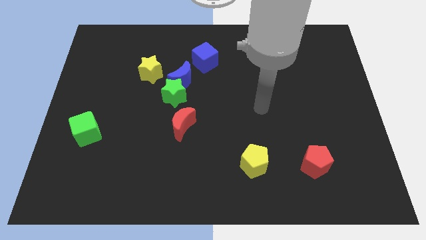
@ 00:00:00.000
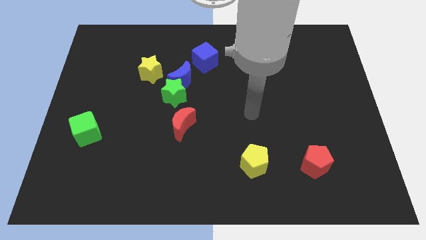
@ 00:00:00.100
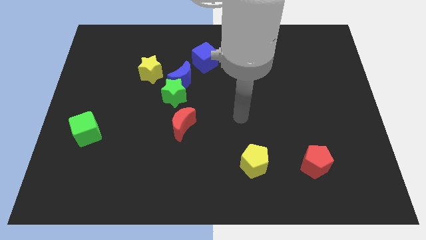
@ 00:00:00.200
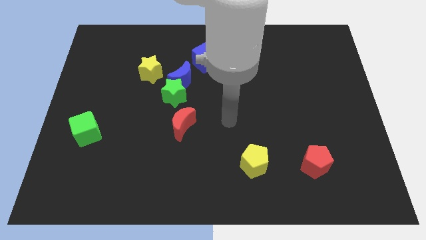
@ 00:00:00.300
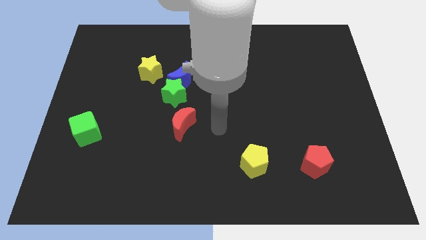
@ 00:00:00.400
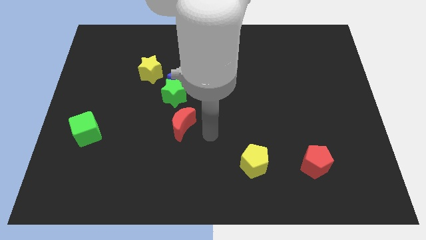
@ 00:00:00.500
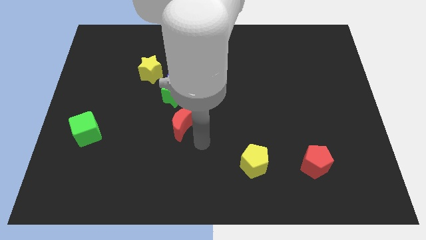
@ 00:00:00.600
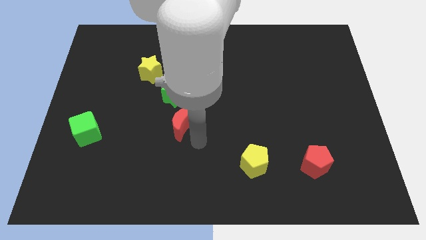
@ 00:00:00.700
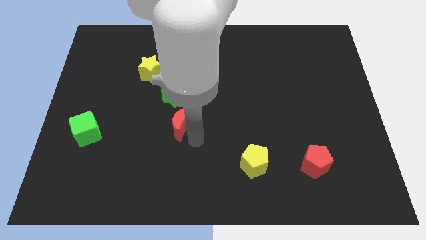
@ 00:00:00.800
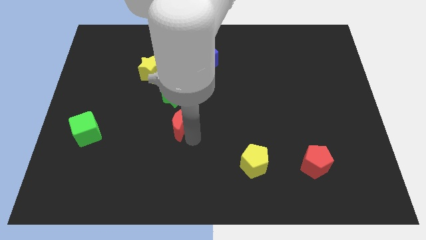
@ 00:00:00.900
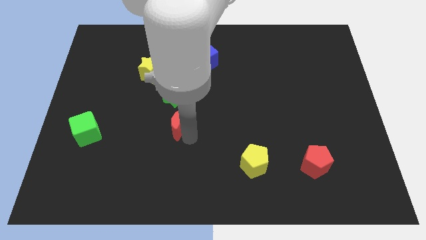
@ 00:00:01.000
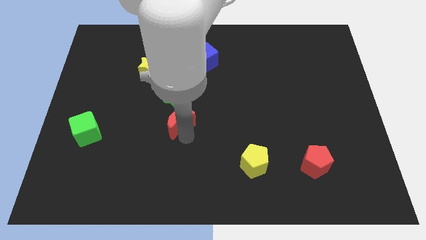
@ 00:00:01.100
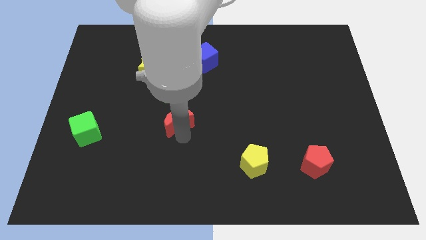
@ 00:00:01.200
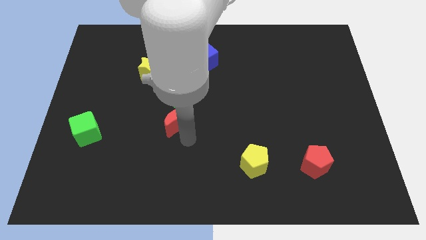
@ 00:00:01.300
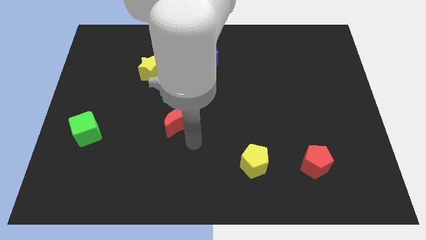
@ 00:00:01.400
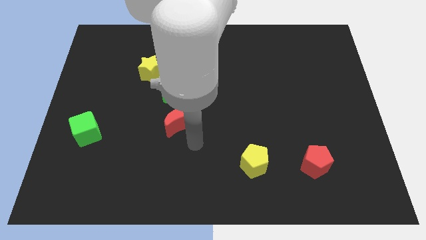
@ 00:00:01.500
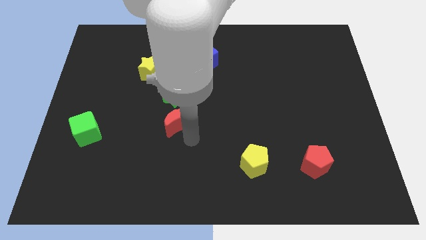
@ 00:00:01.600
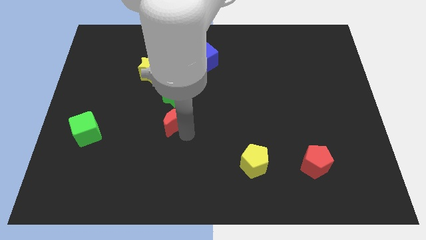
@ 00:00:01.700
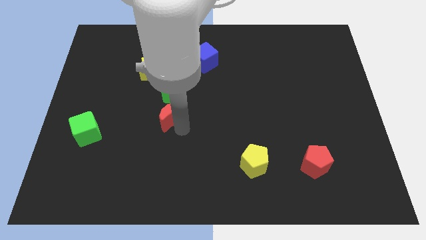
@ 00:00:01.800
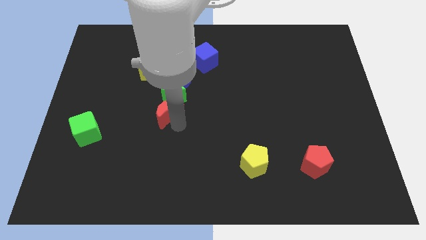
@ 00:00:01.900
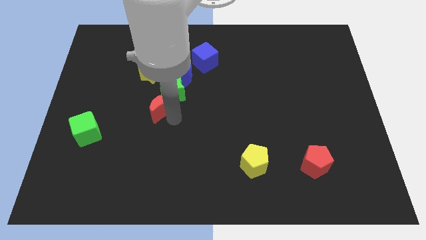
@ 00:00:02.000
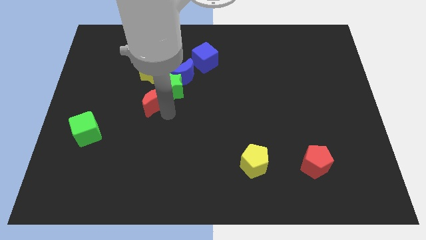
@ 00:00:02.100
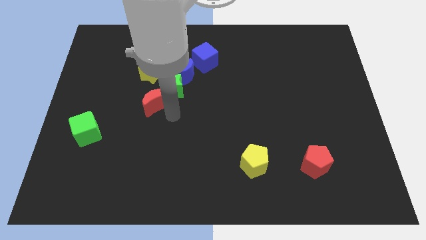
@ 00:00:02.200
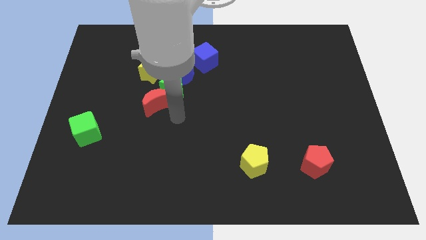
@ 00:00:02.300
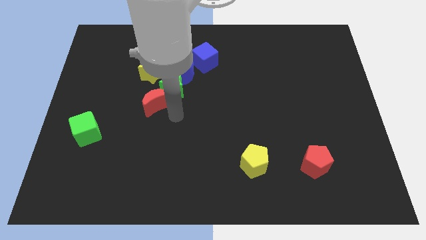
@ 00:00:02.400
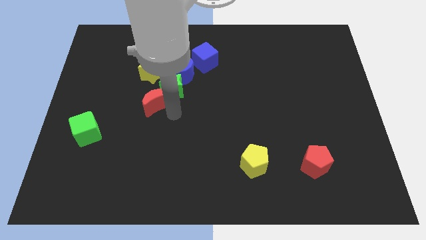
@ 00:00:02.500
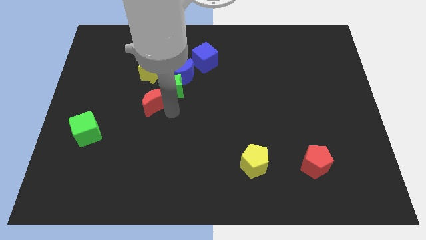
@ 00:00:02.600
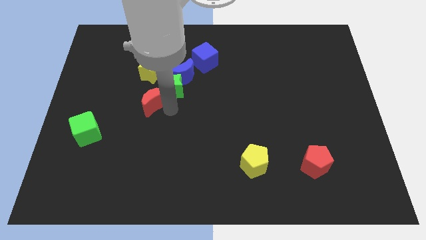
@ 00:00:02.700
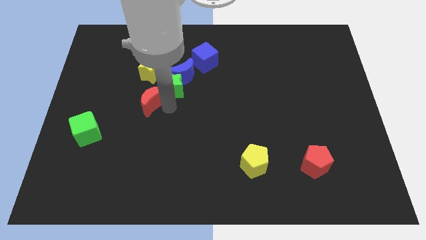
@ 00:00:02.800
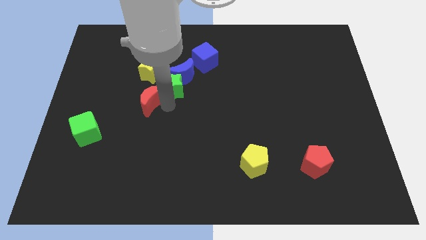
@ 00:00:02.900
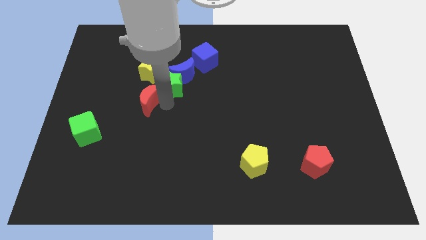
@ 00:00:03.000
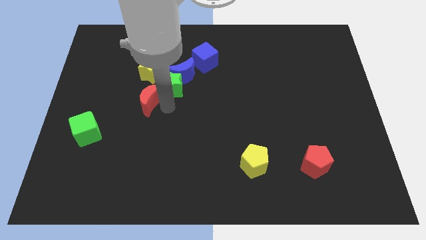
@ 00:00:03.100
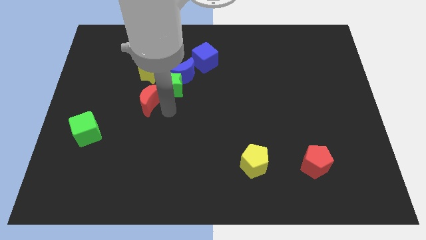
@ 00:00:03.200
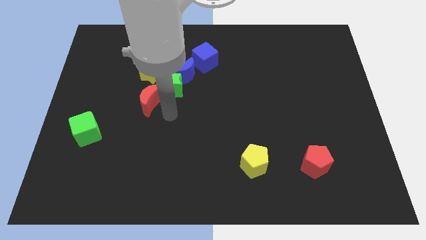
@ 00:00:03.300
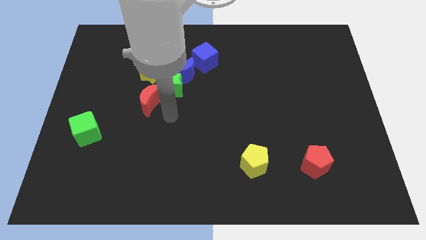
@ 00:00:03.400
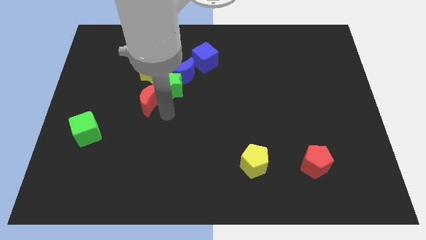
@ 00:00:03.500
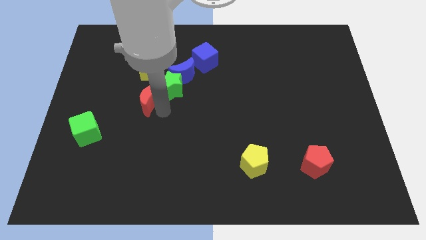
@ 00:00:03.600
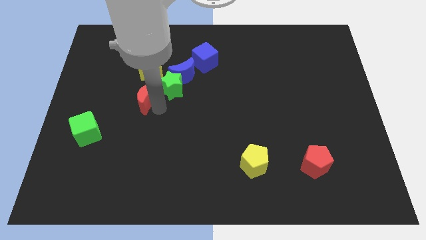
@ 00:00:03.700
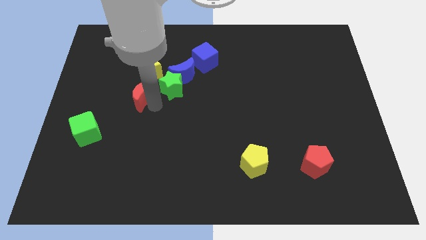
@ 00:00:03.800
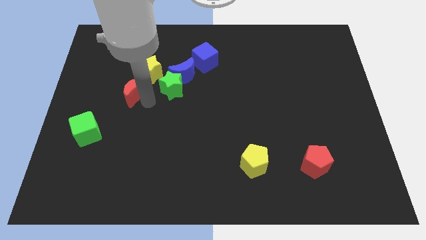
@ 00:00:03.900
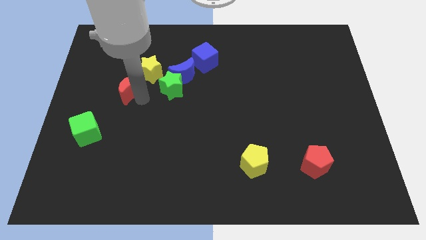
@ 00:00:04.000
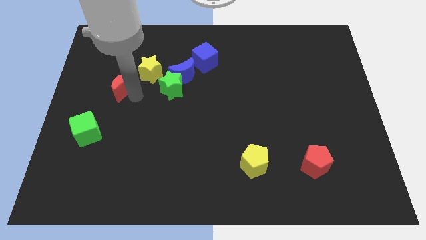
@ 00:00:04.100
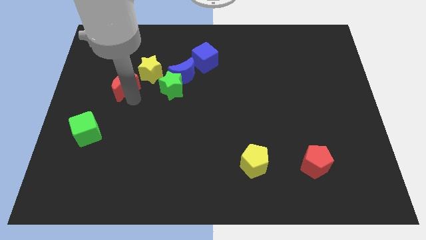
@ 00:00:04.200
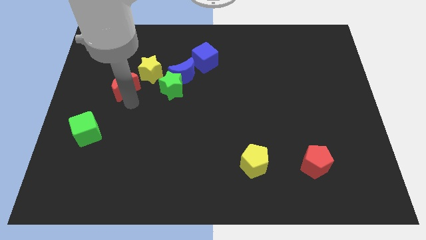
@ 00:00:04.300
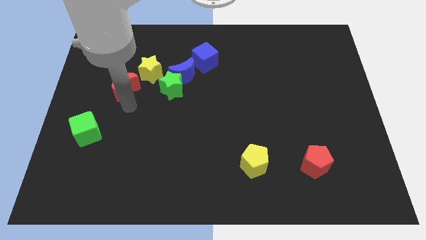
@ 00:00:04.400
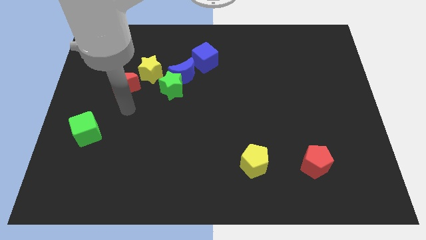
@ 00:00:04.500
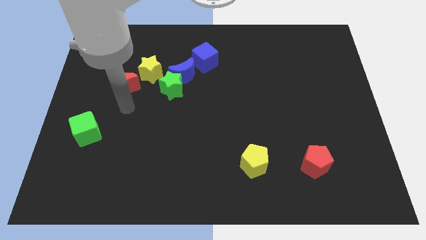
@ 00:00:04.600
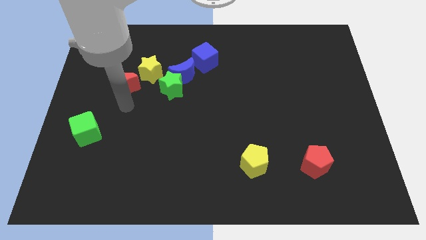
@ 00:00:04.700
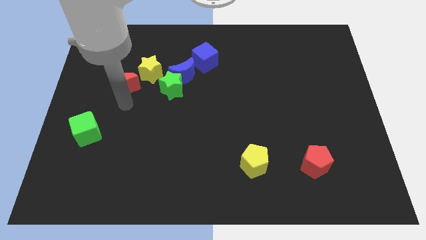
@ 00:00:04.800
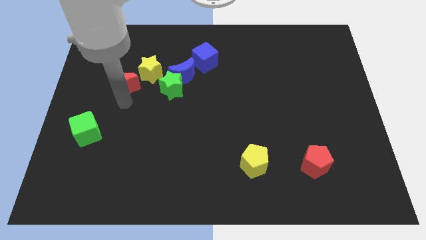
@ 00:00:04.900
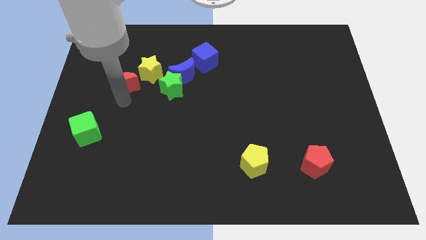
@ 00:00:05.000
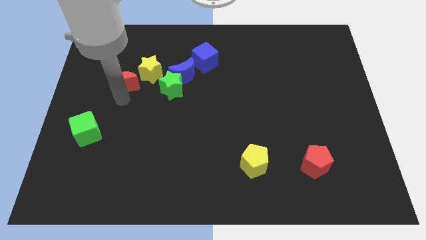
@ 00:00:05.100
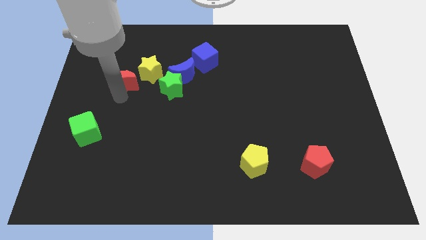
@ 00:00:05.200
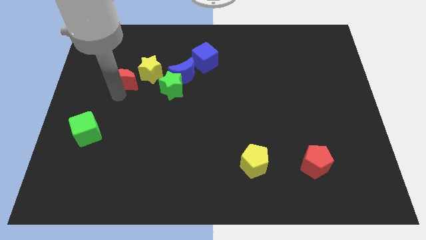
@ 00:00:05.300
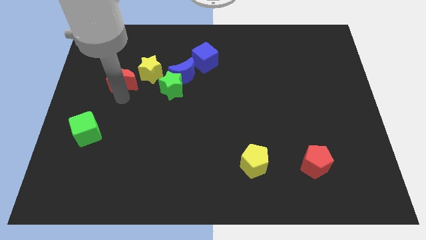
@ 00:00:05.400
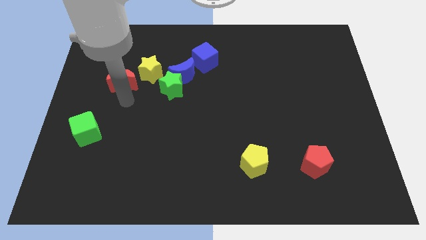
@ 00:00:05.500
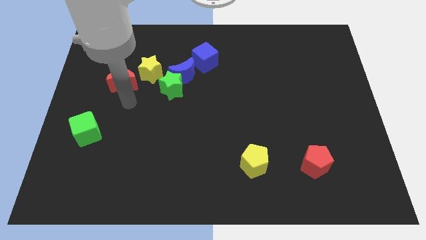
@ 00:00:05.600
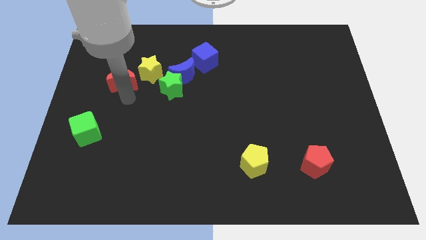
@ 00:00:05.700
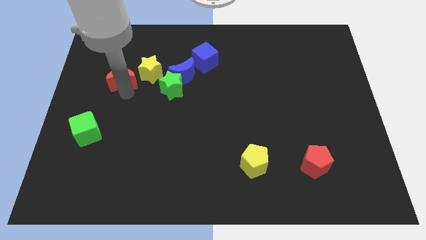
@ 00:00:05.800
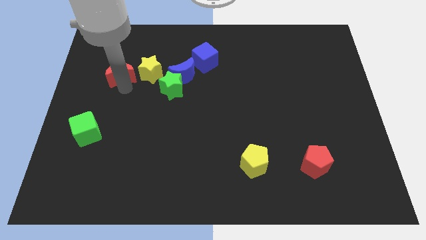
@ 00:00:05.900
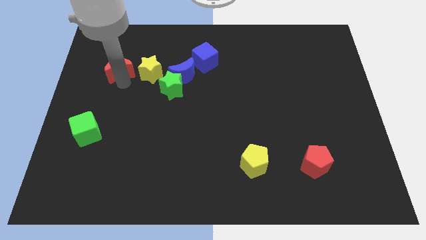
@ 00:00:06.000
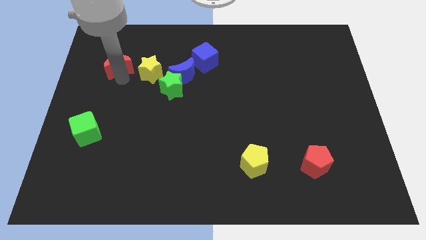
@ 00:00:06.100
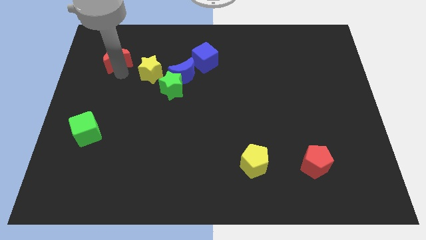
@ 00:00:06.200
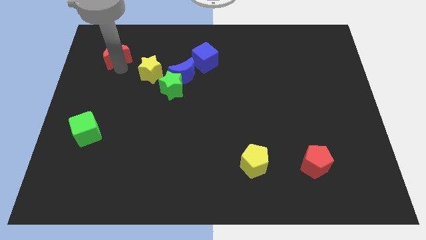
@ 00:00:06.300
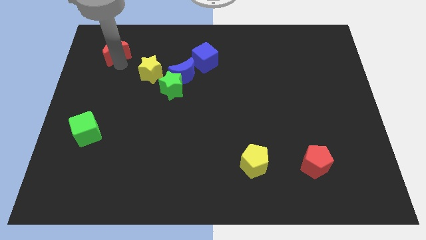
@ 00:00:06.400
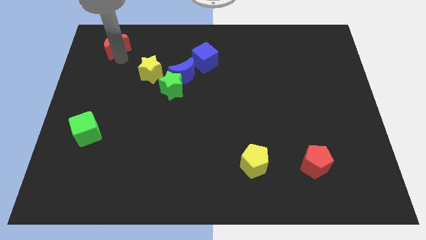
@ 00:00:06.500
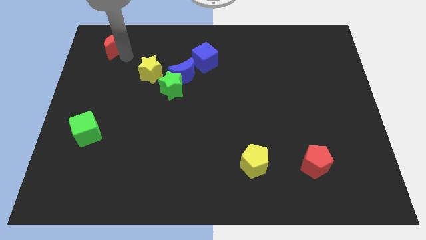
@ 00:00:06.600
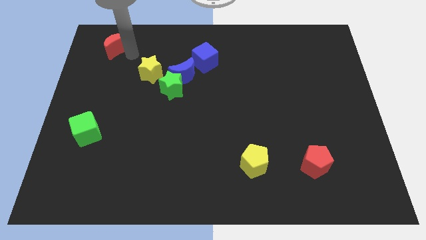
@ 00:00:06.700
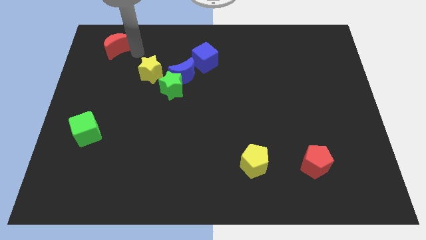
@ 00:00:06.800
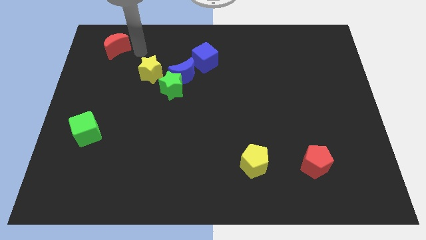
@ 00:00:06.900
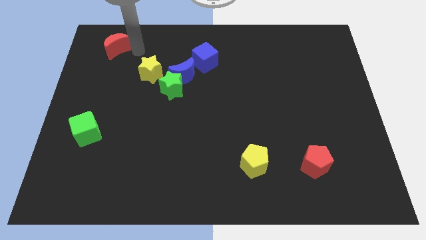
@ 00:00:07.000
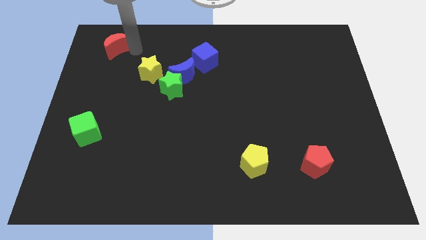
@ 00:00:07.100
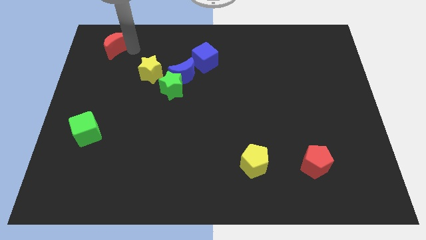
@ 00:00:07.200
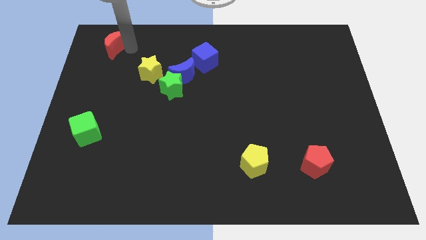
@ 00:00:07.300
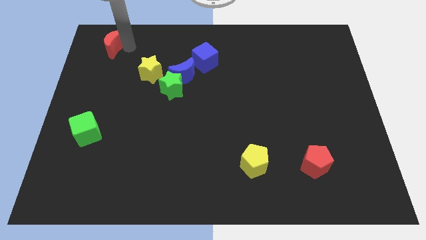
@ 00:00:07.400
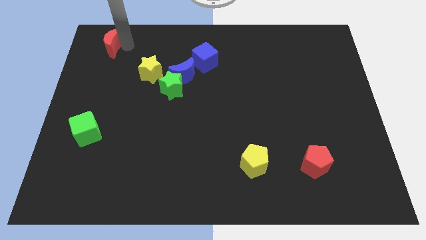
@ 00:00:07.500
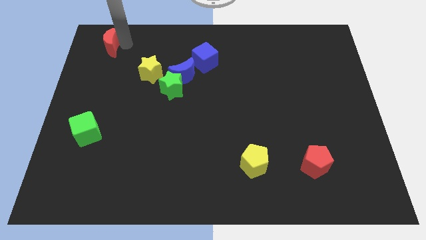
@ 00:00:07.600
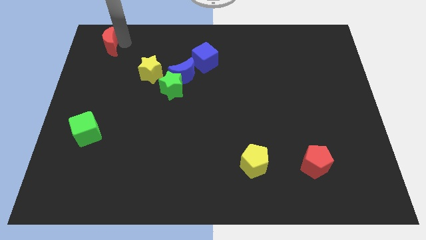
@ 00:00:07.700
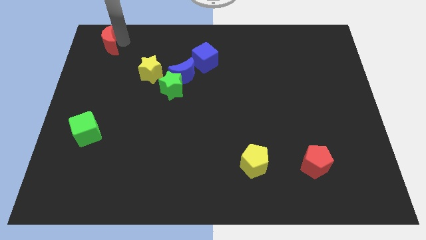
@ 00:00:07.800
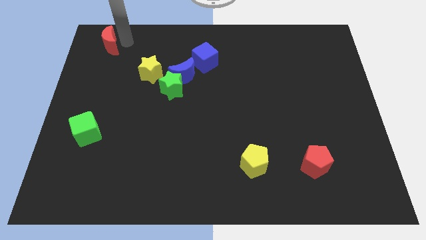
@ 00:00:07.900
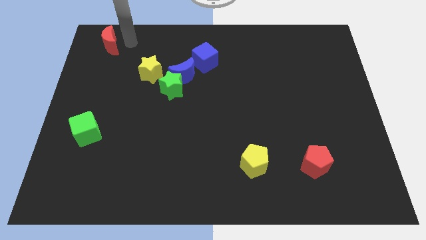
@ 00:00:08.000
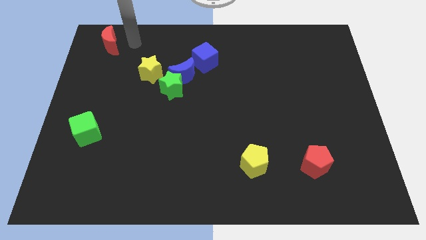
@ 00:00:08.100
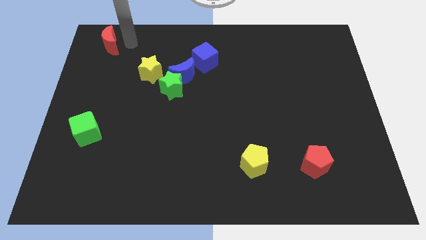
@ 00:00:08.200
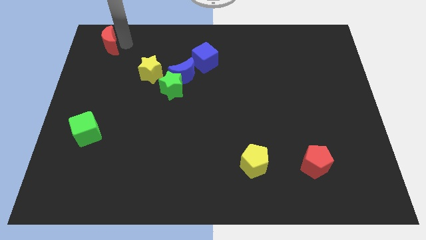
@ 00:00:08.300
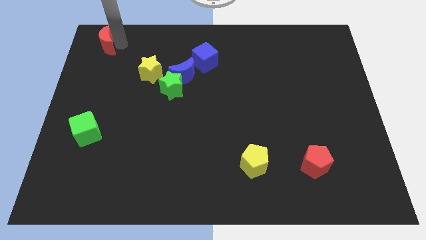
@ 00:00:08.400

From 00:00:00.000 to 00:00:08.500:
slide the red moon to the top left corner
